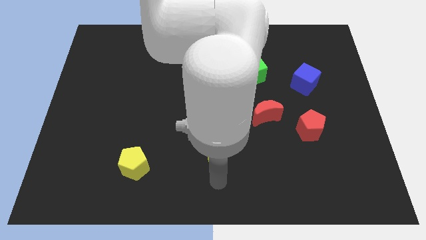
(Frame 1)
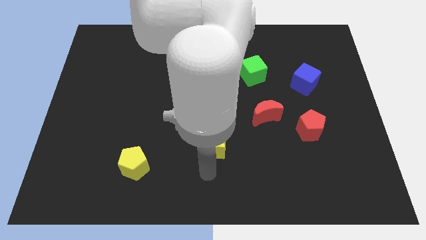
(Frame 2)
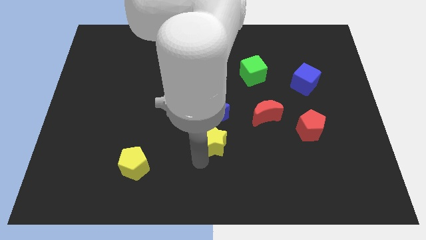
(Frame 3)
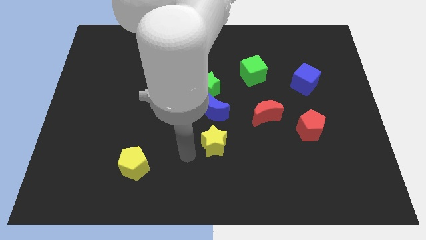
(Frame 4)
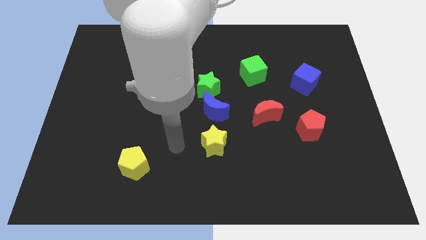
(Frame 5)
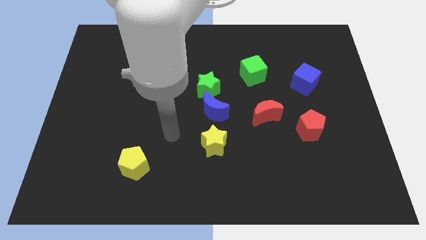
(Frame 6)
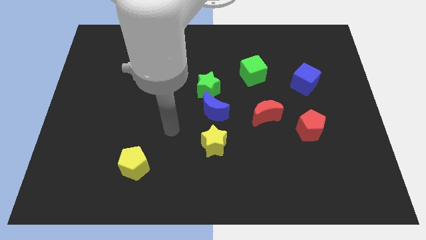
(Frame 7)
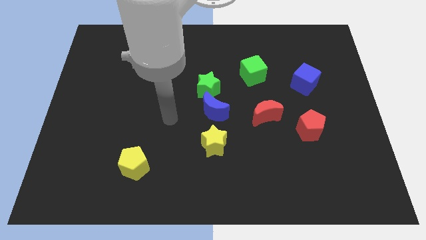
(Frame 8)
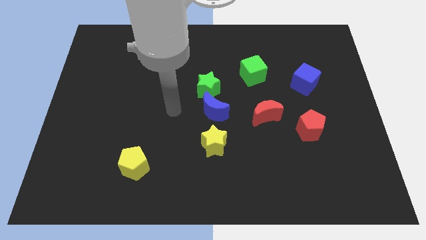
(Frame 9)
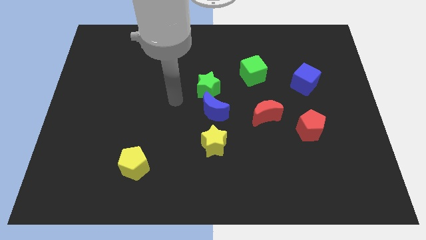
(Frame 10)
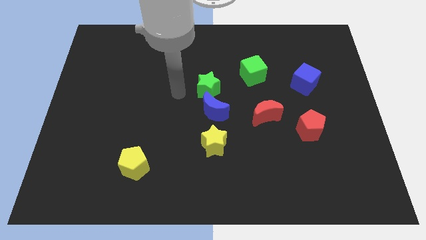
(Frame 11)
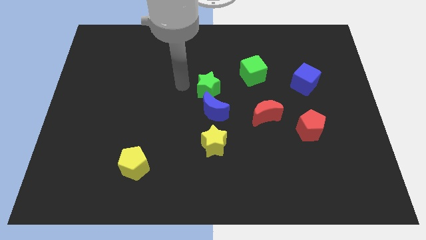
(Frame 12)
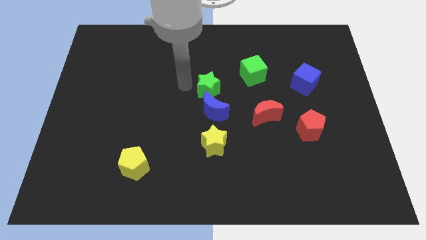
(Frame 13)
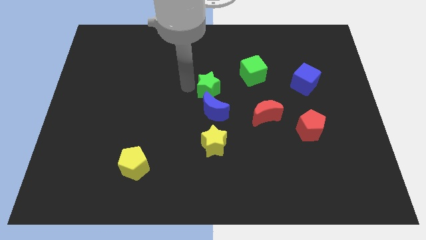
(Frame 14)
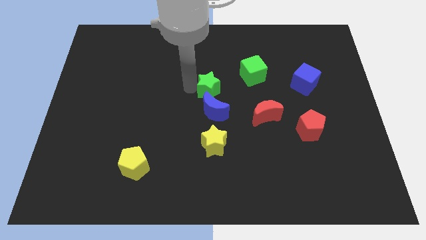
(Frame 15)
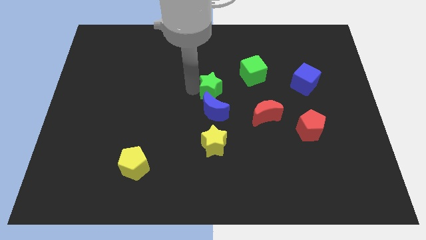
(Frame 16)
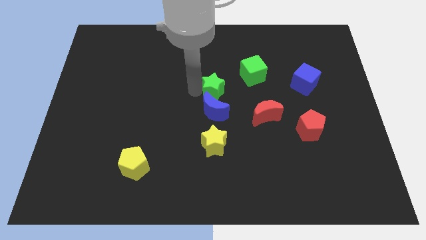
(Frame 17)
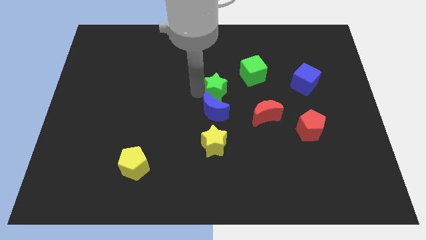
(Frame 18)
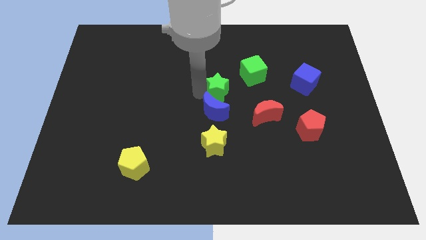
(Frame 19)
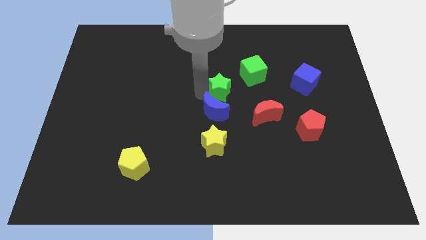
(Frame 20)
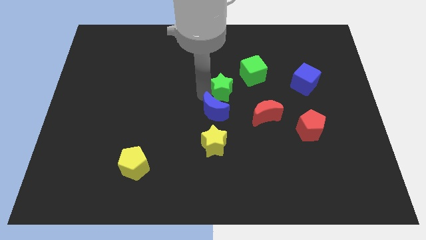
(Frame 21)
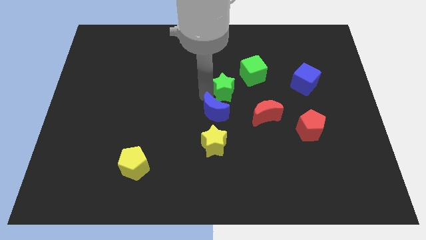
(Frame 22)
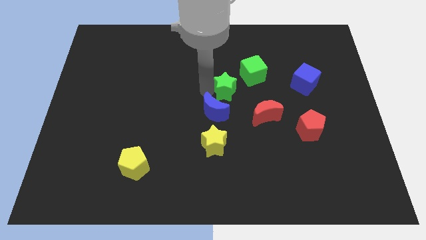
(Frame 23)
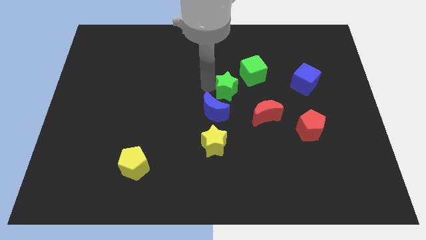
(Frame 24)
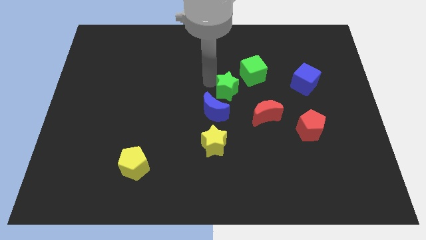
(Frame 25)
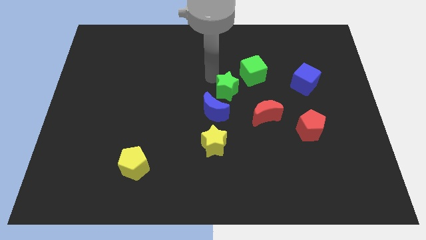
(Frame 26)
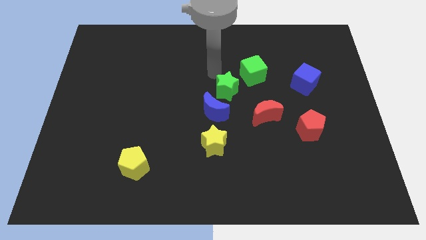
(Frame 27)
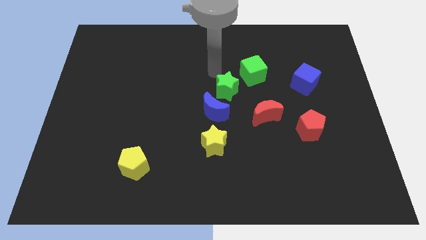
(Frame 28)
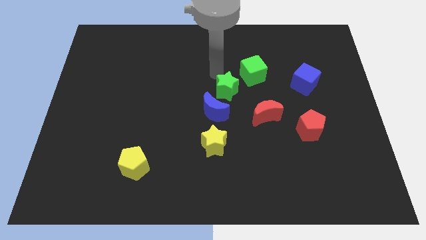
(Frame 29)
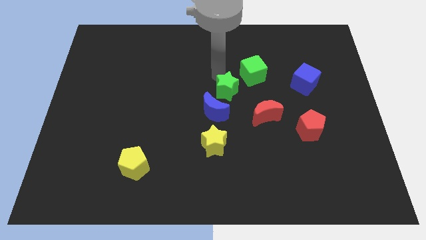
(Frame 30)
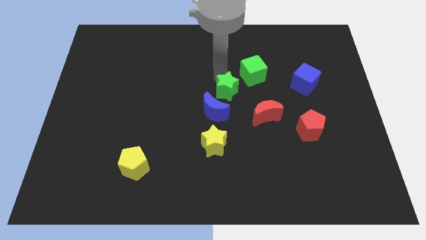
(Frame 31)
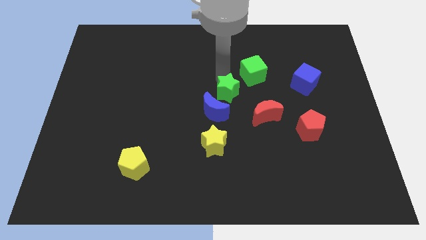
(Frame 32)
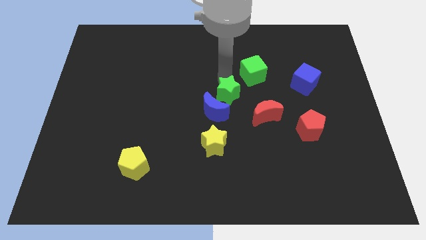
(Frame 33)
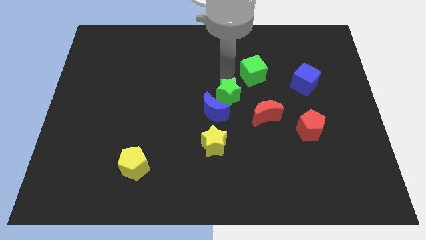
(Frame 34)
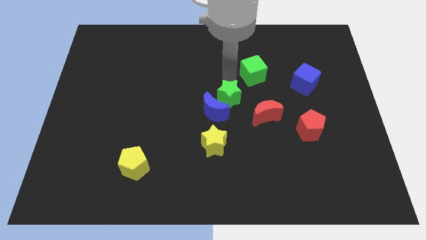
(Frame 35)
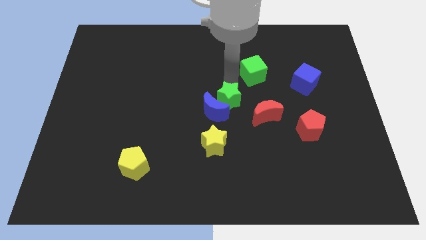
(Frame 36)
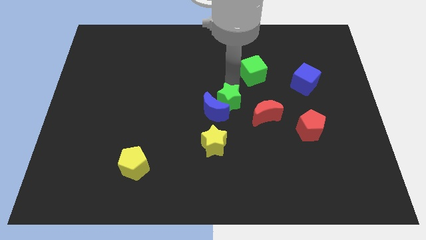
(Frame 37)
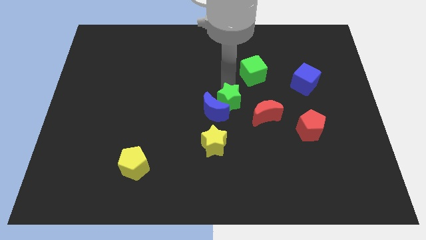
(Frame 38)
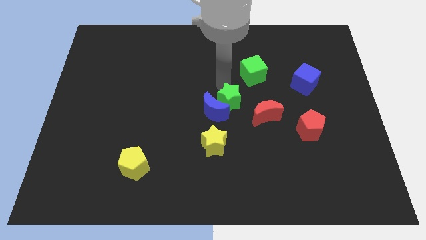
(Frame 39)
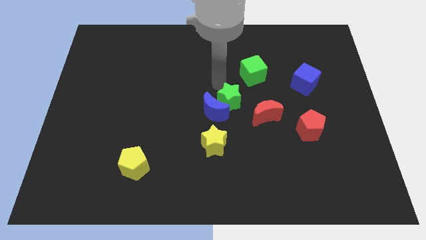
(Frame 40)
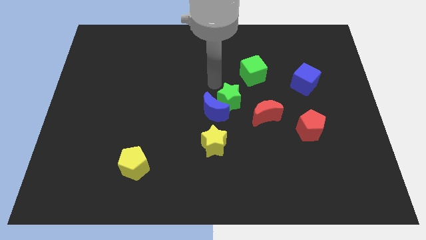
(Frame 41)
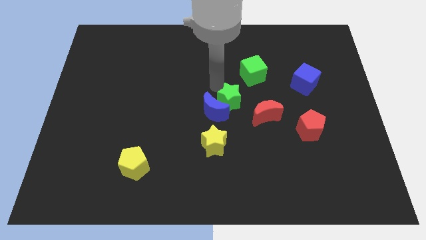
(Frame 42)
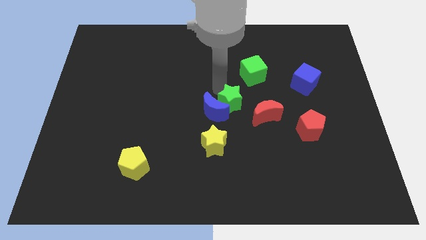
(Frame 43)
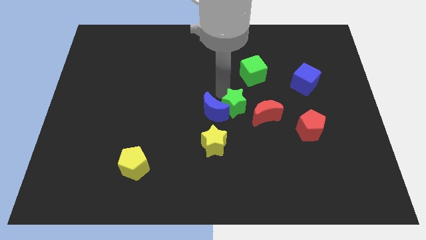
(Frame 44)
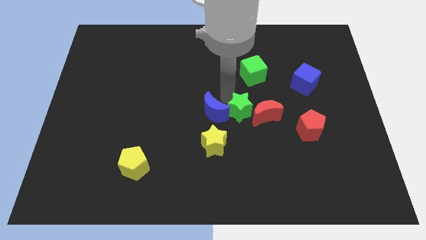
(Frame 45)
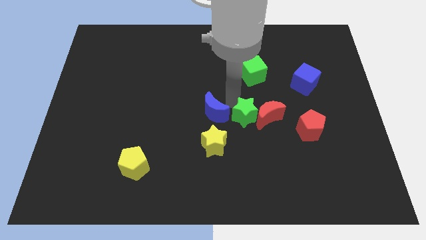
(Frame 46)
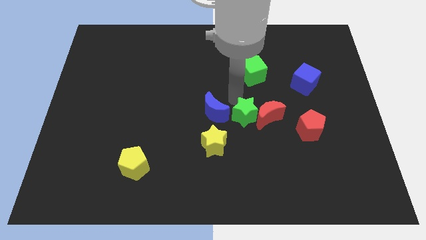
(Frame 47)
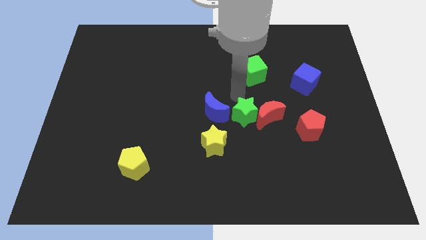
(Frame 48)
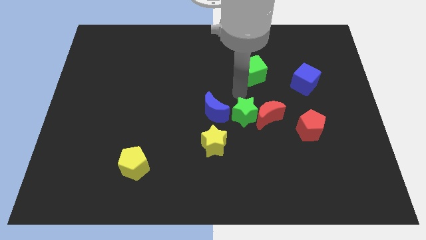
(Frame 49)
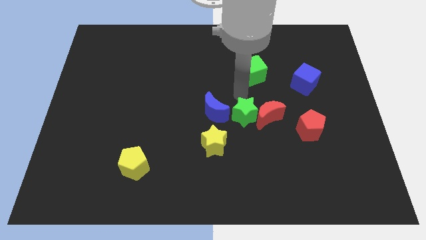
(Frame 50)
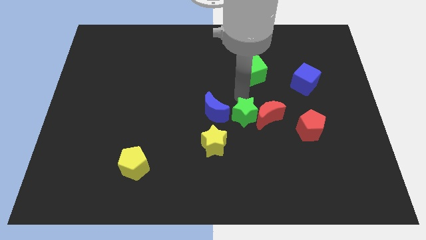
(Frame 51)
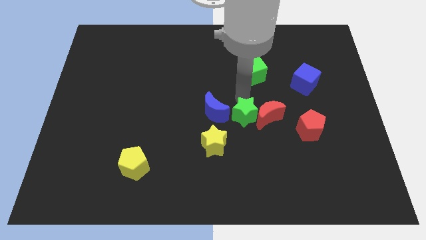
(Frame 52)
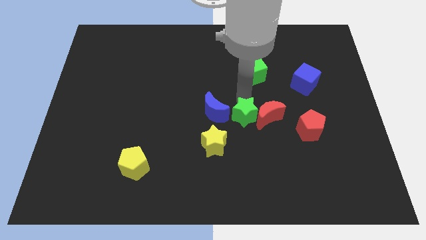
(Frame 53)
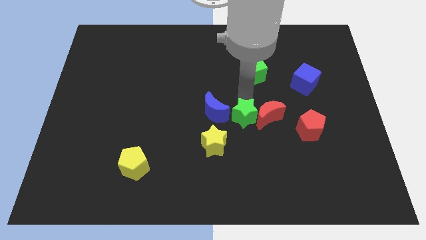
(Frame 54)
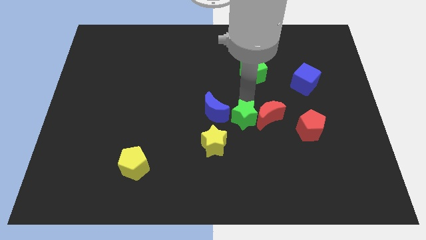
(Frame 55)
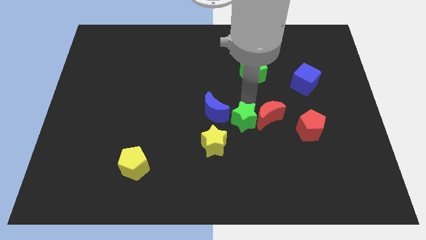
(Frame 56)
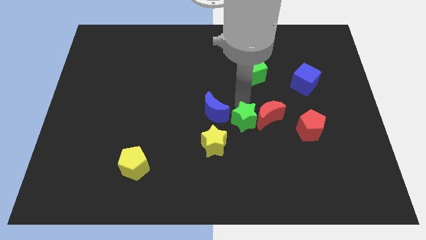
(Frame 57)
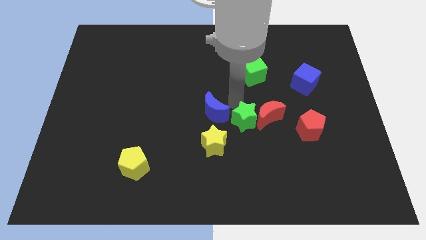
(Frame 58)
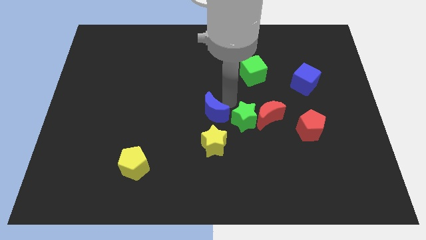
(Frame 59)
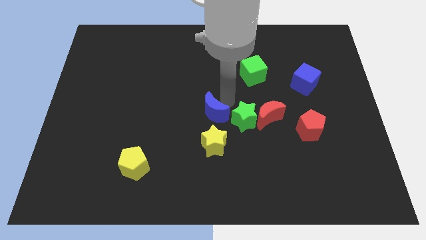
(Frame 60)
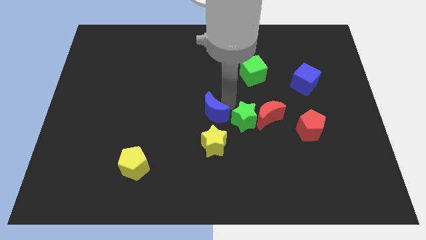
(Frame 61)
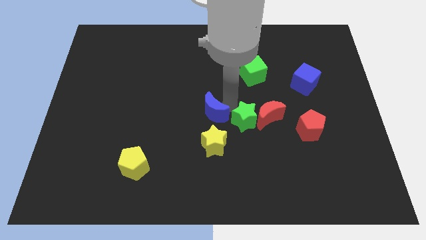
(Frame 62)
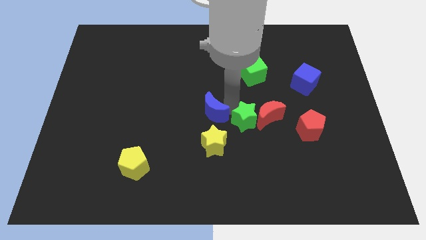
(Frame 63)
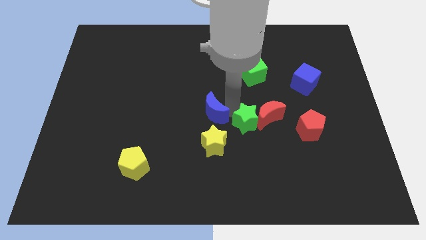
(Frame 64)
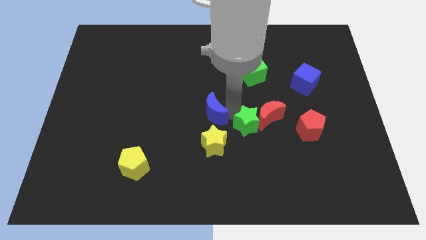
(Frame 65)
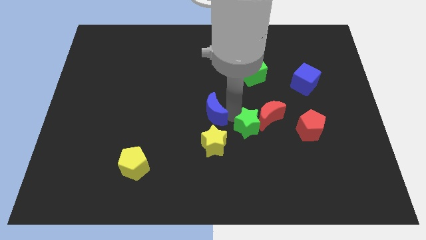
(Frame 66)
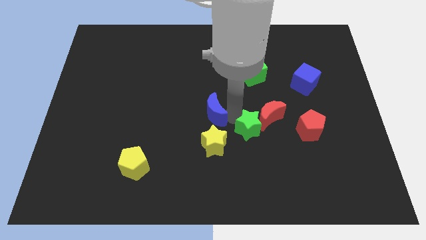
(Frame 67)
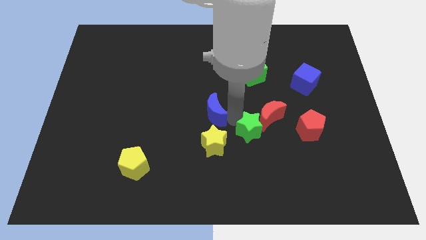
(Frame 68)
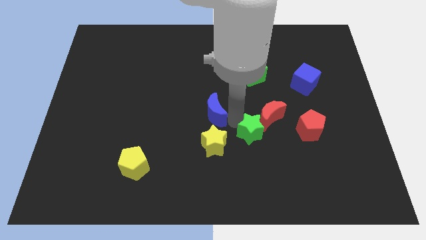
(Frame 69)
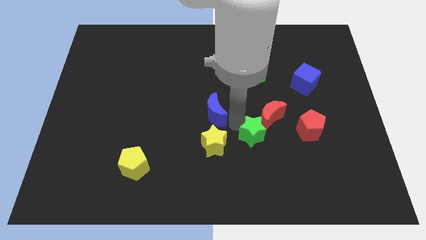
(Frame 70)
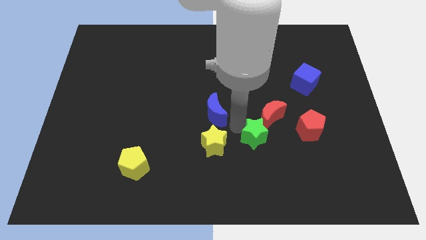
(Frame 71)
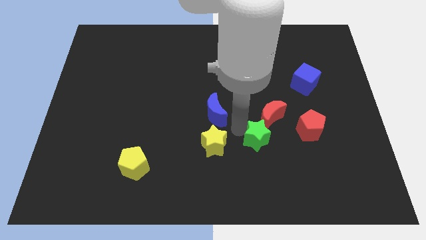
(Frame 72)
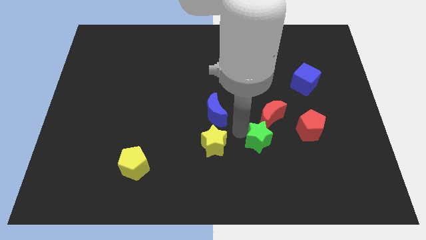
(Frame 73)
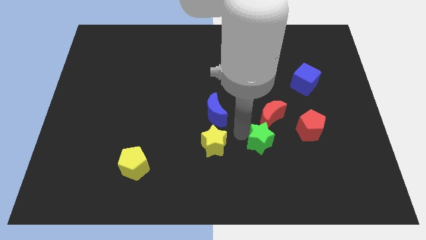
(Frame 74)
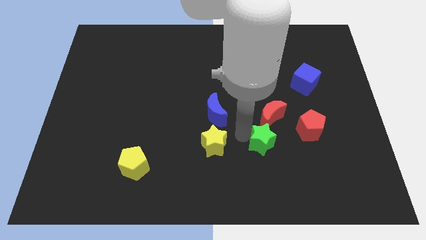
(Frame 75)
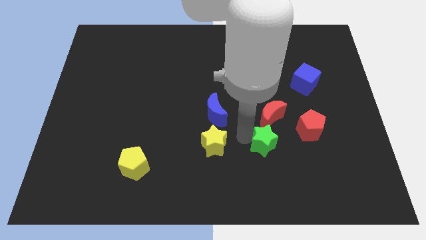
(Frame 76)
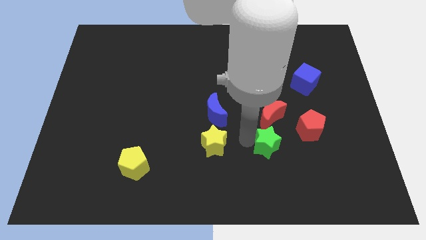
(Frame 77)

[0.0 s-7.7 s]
push the green star down and right

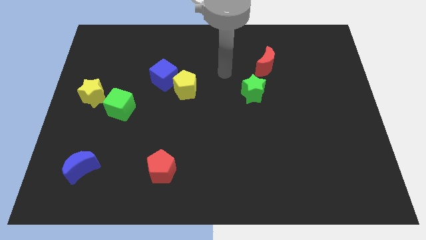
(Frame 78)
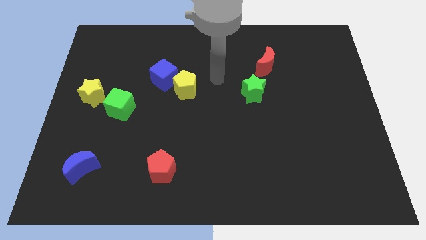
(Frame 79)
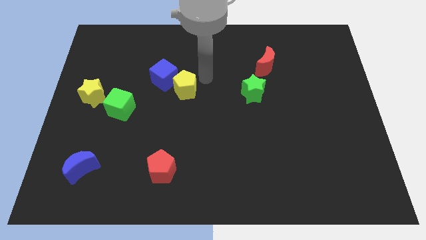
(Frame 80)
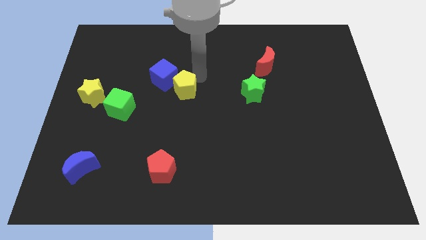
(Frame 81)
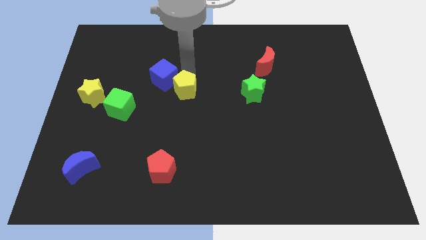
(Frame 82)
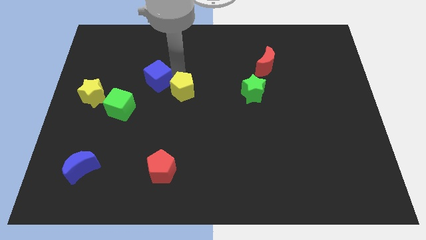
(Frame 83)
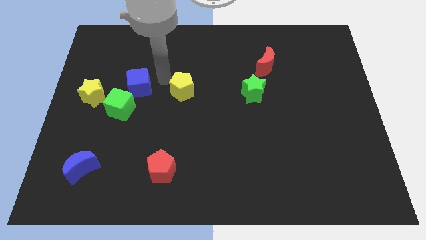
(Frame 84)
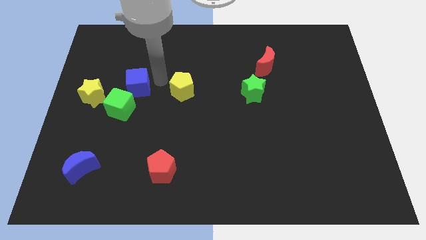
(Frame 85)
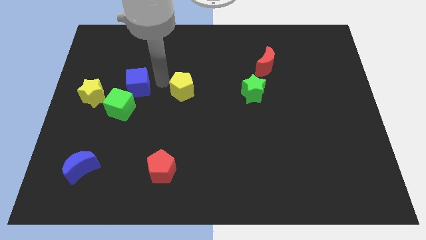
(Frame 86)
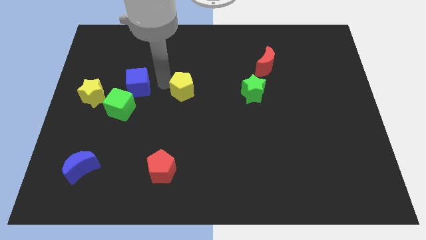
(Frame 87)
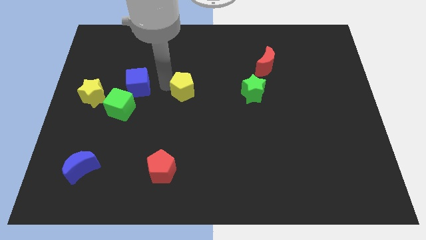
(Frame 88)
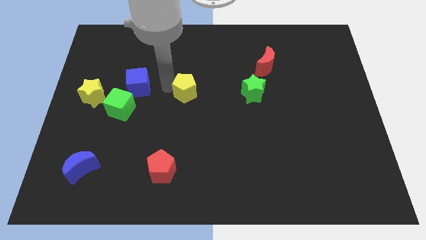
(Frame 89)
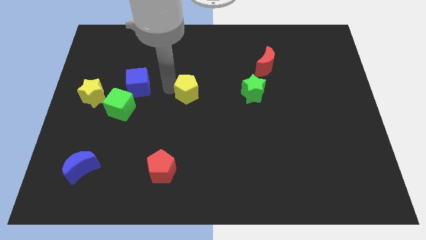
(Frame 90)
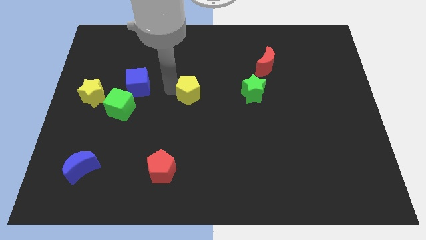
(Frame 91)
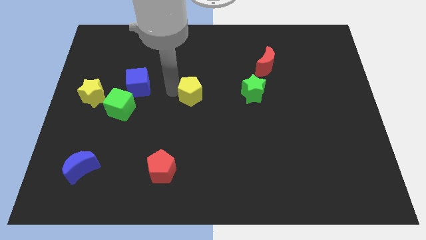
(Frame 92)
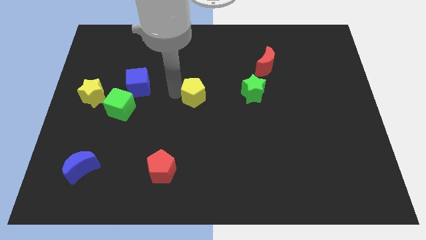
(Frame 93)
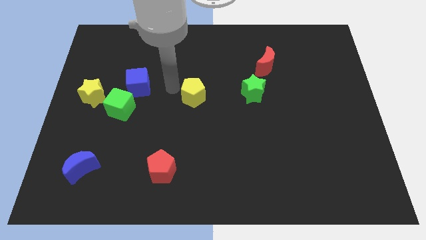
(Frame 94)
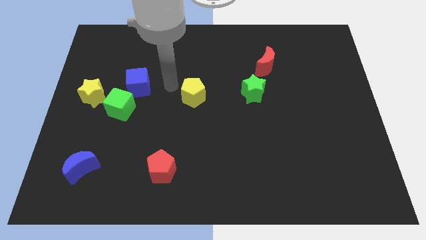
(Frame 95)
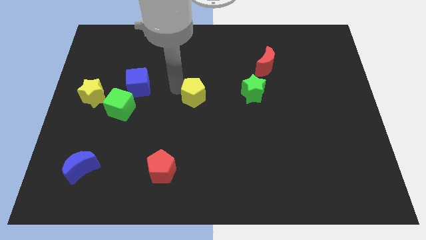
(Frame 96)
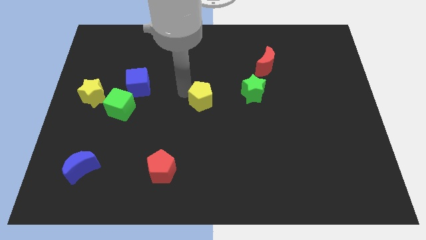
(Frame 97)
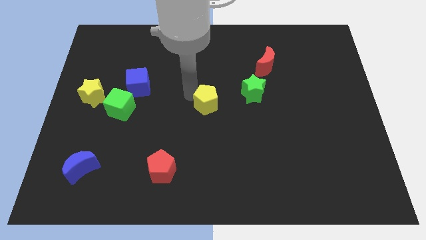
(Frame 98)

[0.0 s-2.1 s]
slightly push the yellow pentagon down and right diagonally
